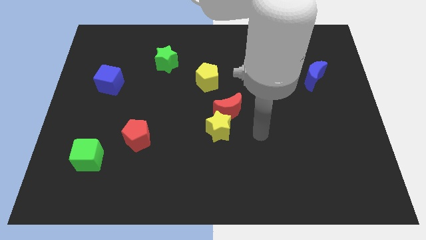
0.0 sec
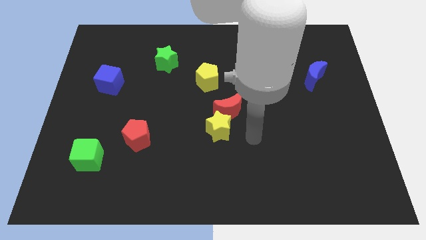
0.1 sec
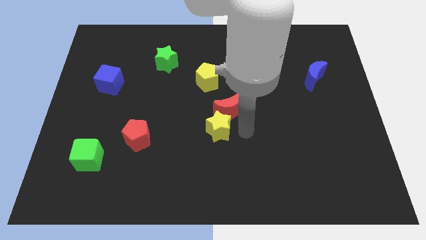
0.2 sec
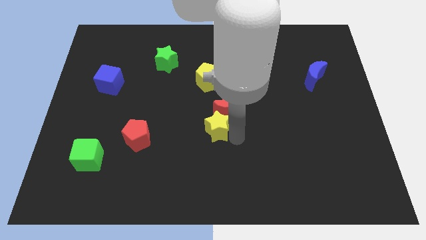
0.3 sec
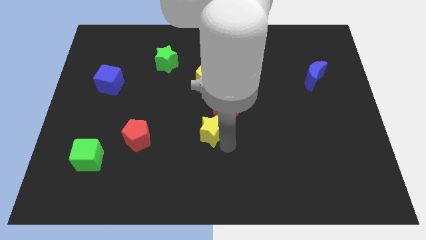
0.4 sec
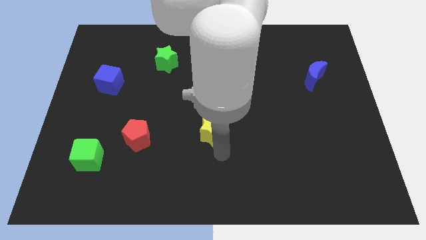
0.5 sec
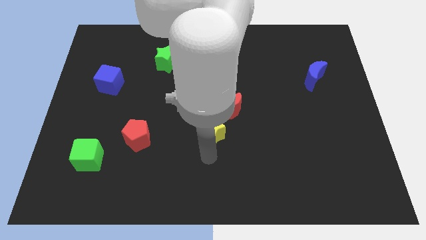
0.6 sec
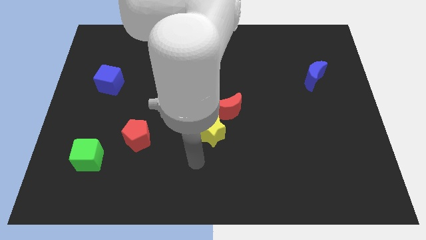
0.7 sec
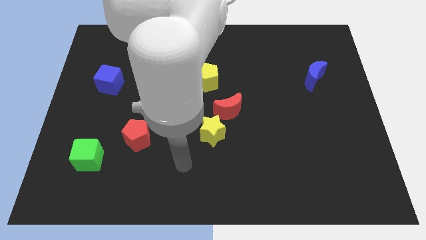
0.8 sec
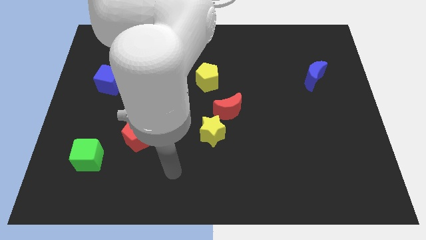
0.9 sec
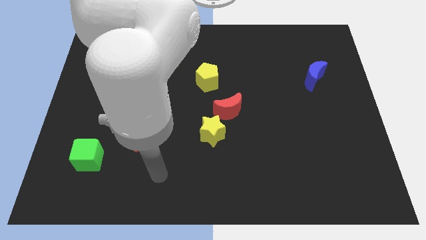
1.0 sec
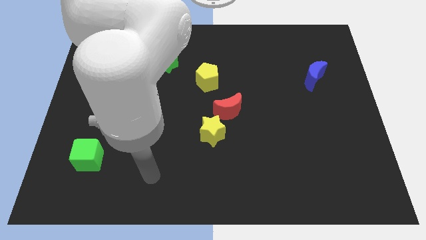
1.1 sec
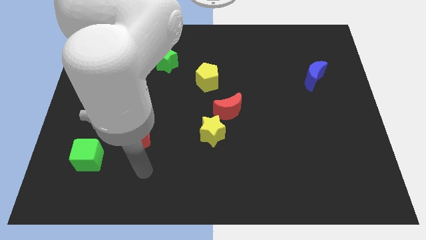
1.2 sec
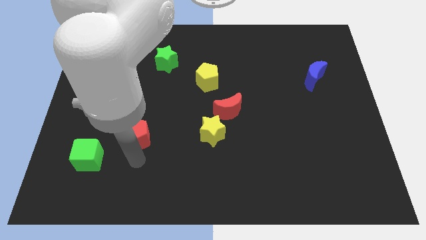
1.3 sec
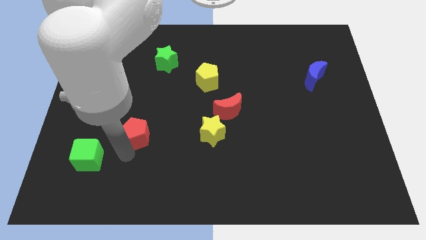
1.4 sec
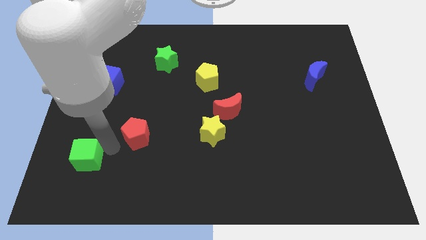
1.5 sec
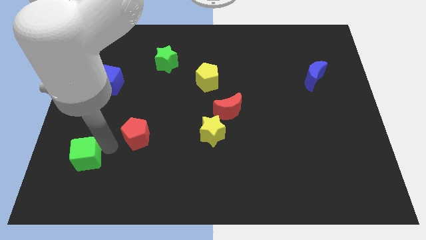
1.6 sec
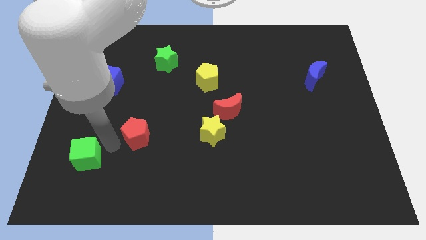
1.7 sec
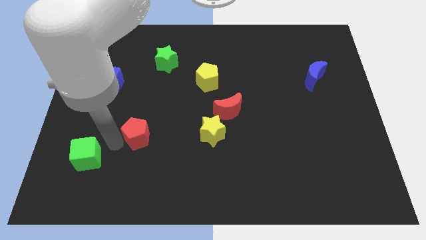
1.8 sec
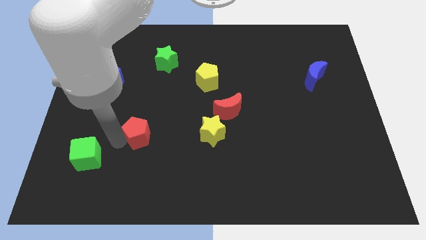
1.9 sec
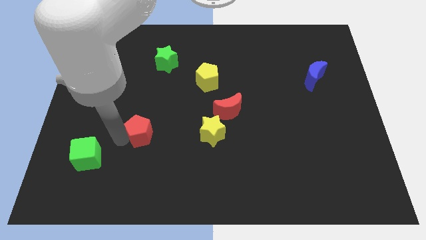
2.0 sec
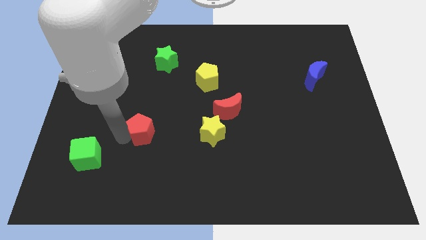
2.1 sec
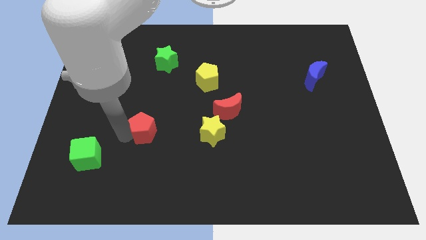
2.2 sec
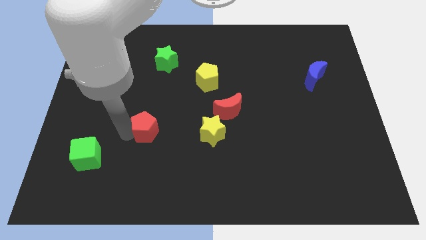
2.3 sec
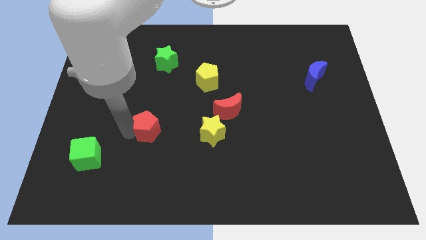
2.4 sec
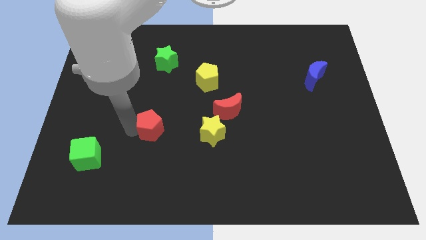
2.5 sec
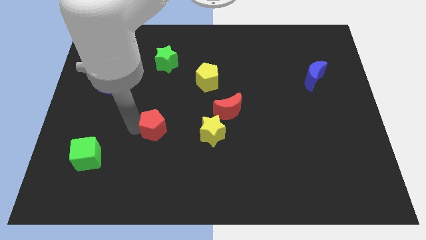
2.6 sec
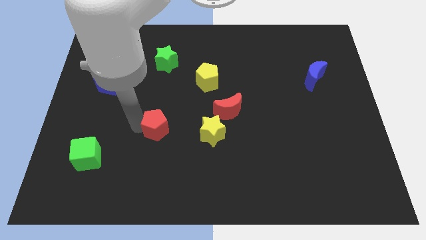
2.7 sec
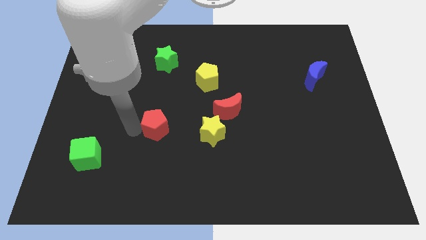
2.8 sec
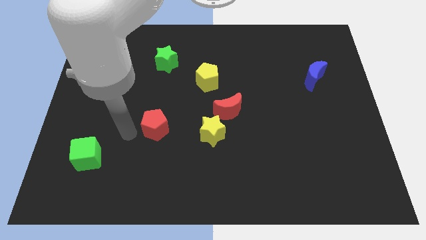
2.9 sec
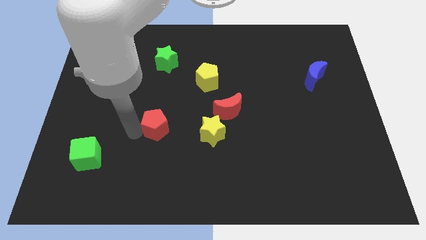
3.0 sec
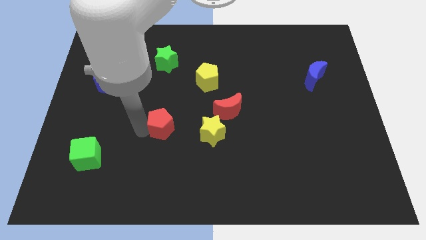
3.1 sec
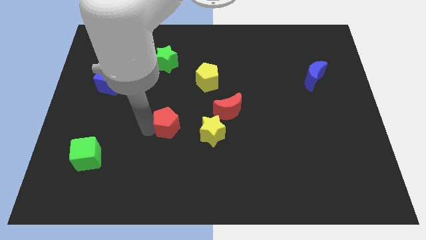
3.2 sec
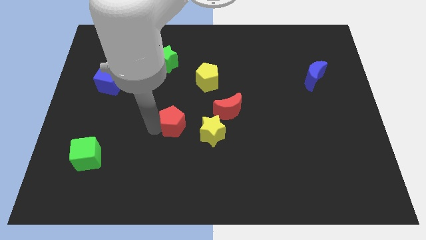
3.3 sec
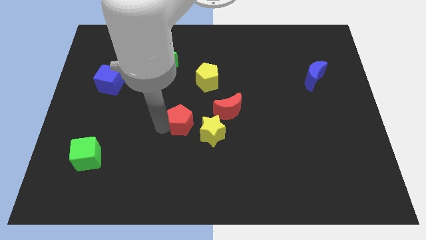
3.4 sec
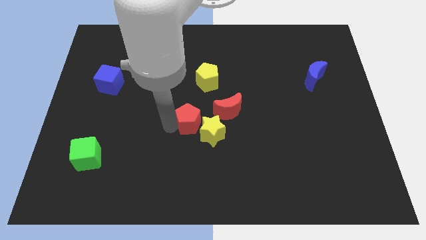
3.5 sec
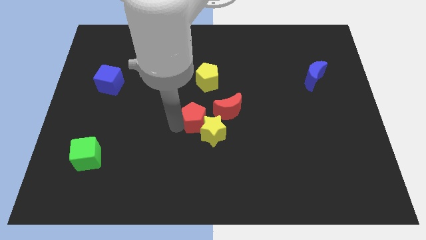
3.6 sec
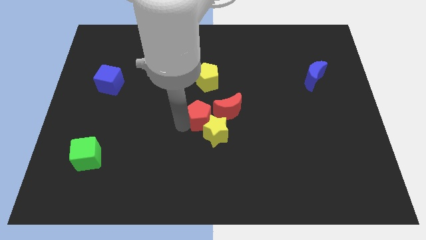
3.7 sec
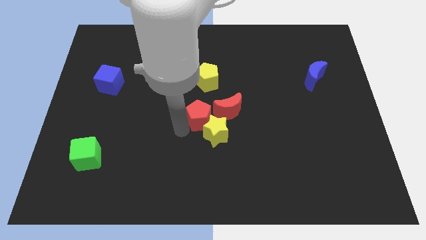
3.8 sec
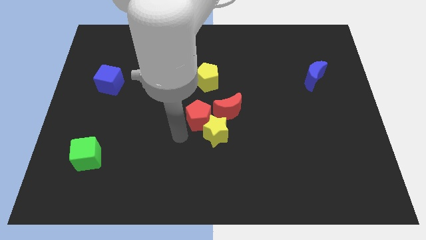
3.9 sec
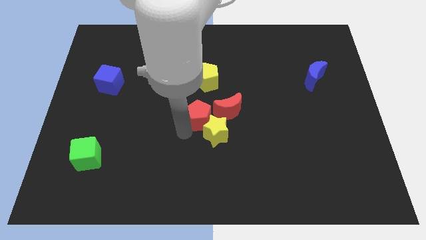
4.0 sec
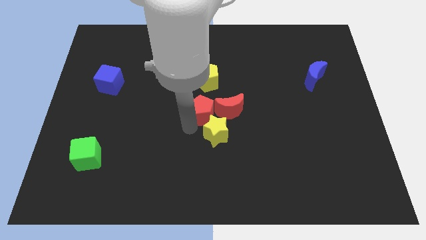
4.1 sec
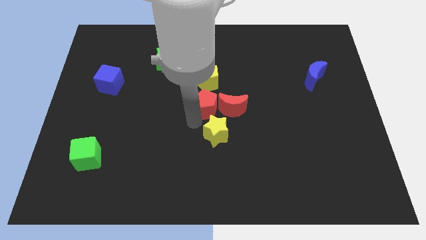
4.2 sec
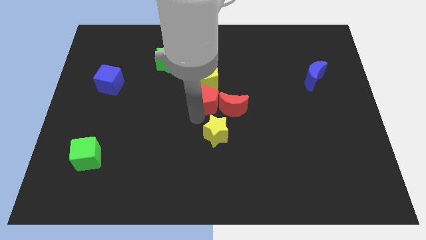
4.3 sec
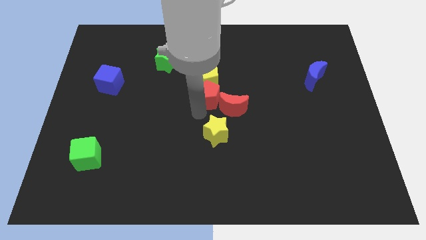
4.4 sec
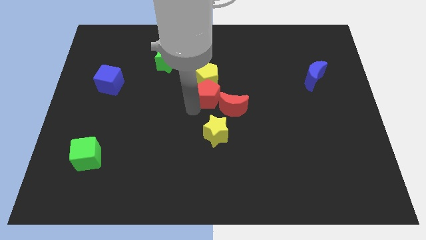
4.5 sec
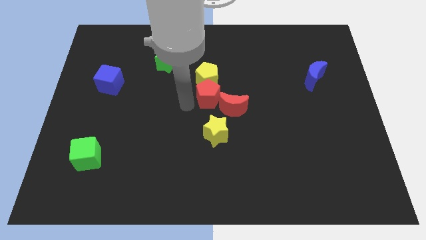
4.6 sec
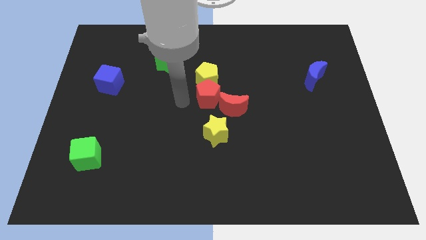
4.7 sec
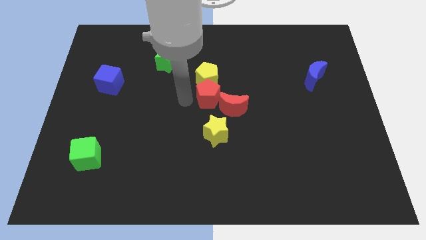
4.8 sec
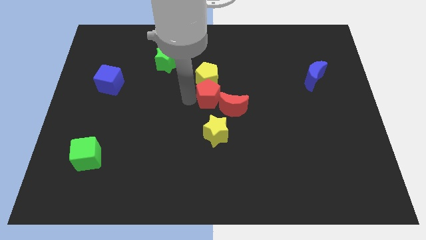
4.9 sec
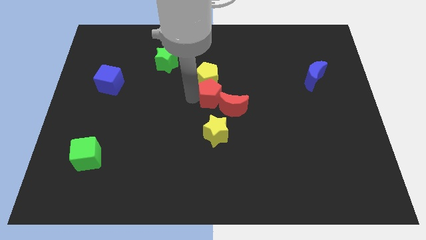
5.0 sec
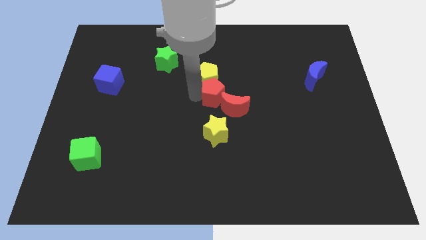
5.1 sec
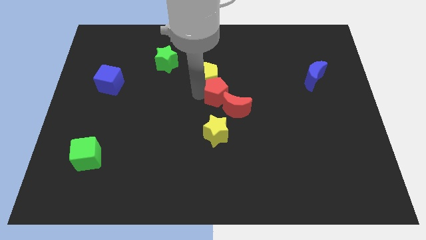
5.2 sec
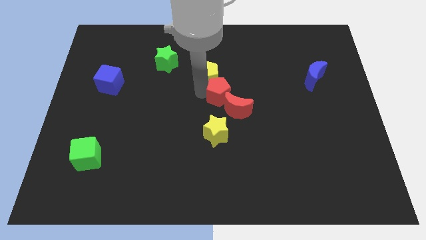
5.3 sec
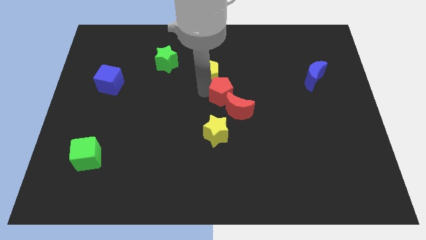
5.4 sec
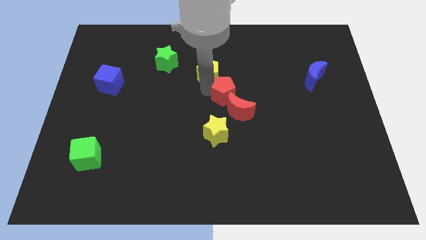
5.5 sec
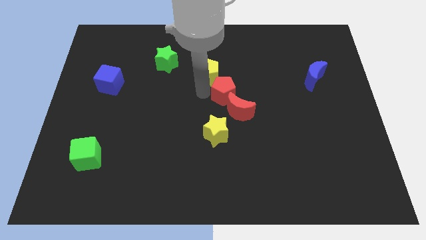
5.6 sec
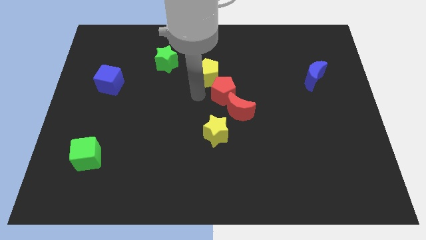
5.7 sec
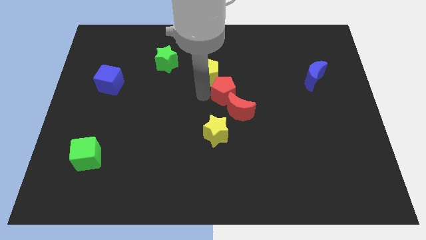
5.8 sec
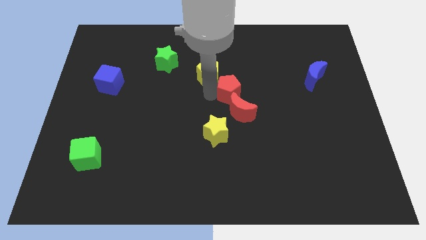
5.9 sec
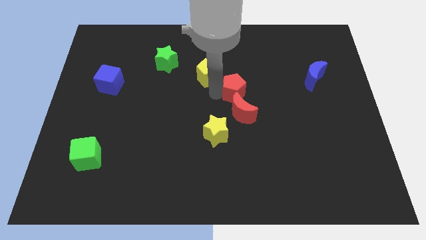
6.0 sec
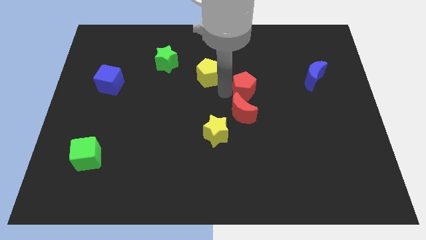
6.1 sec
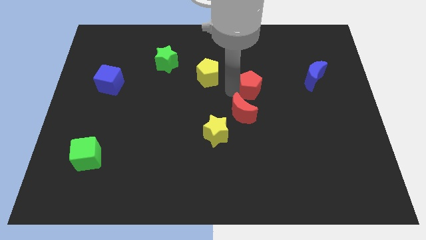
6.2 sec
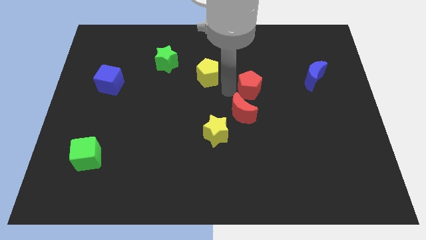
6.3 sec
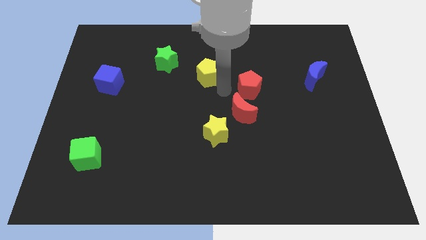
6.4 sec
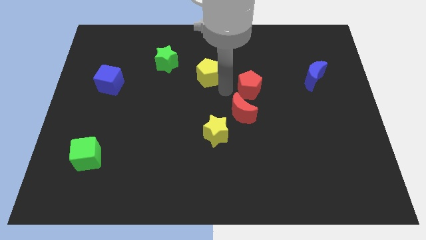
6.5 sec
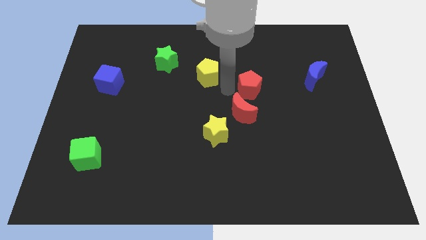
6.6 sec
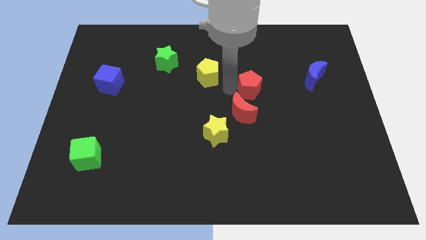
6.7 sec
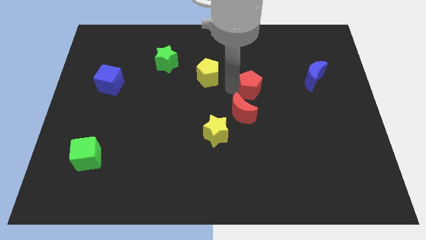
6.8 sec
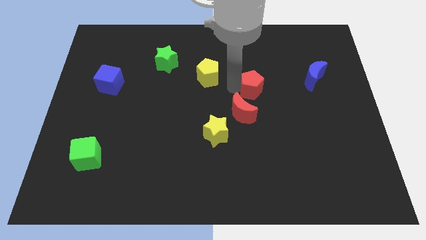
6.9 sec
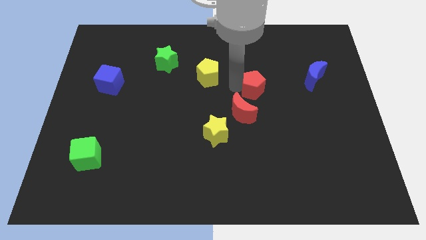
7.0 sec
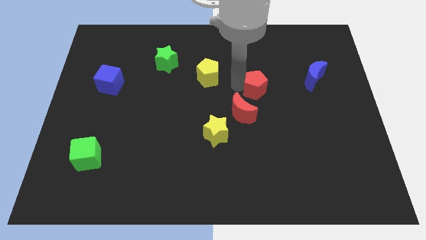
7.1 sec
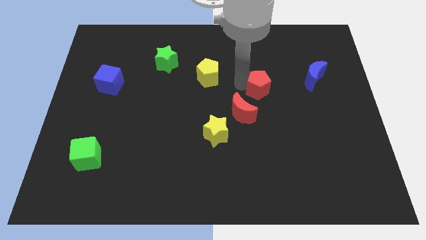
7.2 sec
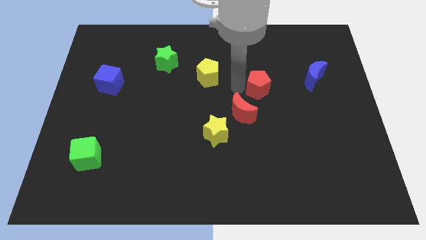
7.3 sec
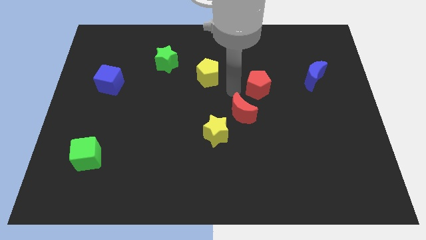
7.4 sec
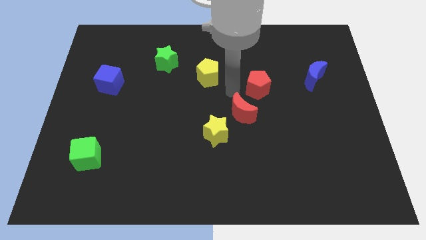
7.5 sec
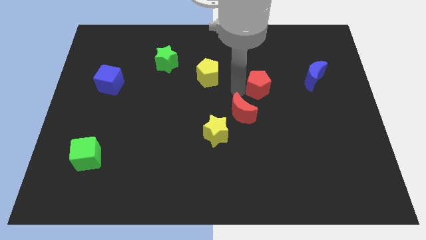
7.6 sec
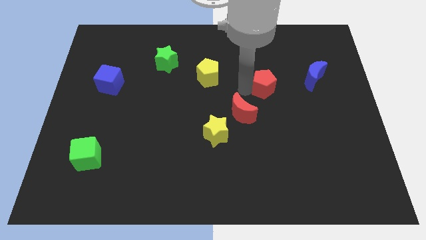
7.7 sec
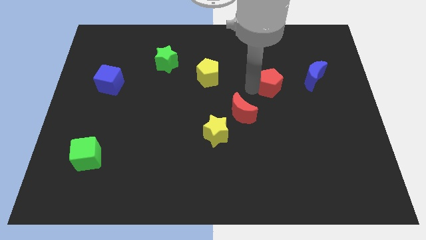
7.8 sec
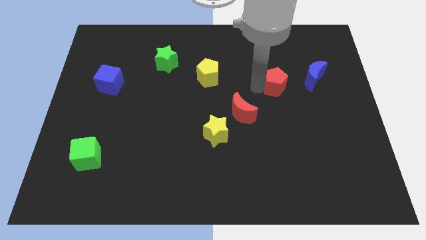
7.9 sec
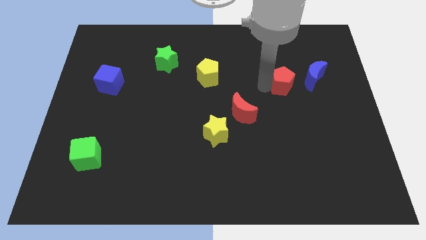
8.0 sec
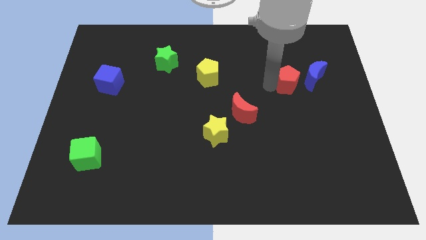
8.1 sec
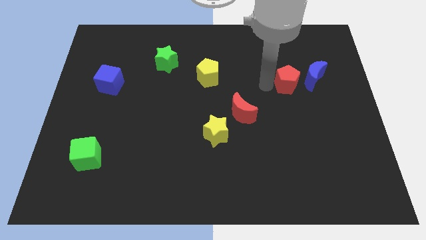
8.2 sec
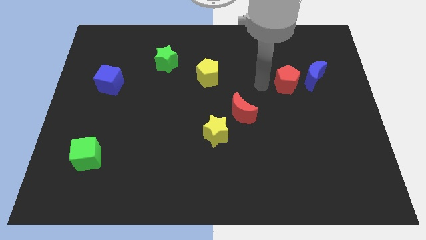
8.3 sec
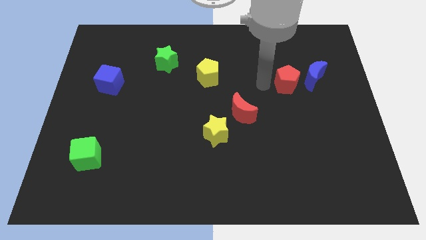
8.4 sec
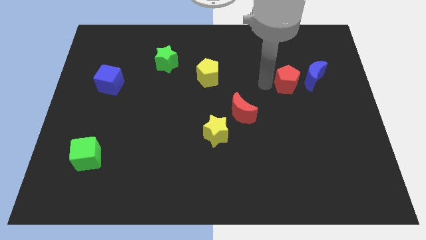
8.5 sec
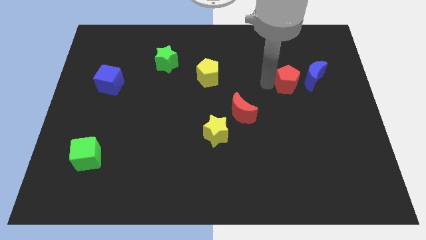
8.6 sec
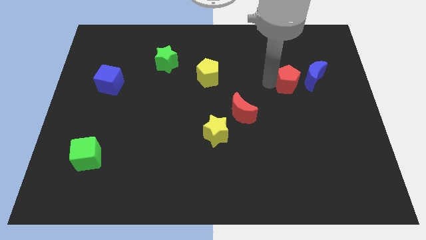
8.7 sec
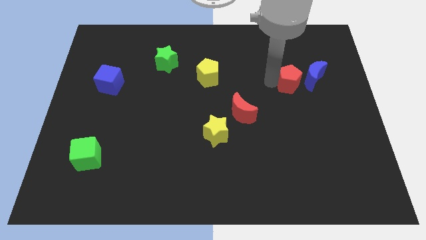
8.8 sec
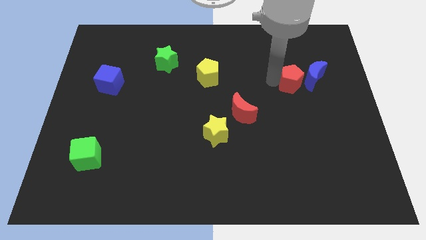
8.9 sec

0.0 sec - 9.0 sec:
push the red pentagon towards the blue moon
